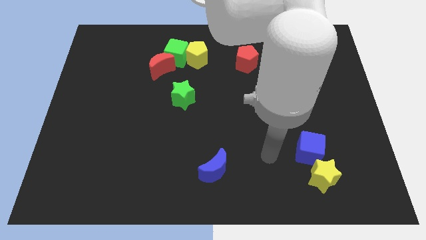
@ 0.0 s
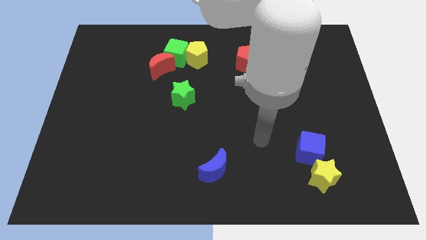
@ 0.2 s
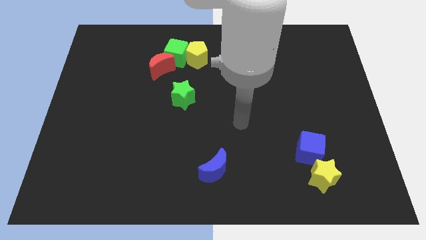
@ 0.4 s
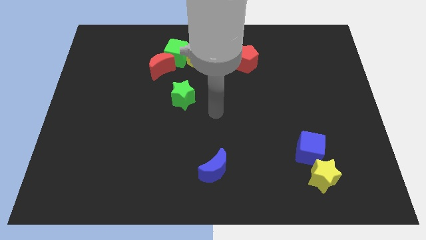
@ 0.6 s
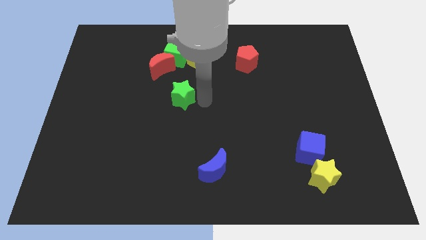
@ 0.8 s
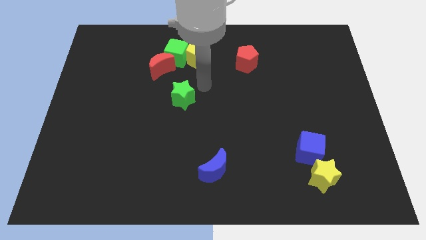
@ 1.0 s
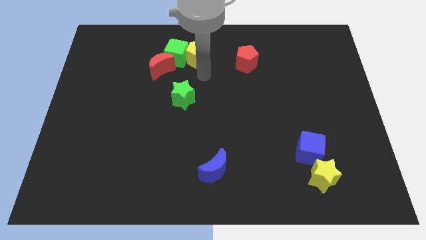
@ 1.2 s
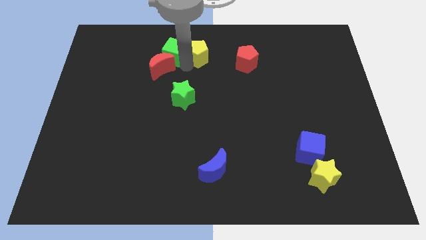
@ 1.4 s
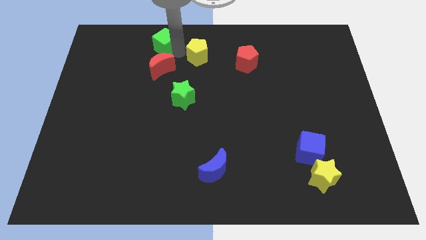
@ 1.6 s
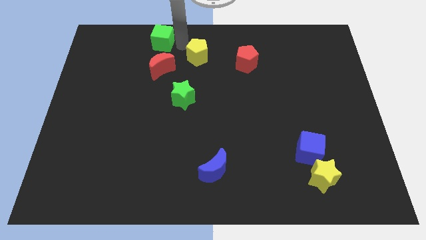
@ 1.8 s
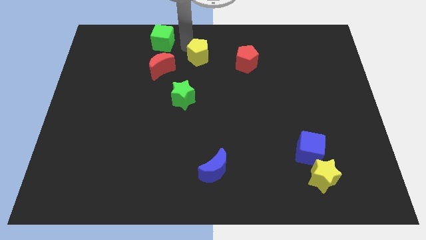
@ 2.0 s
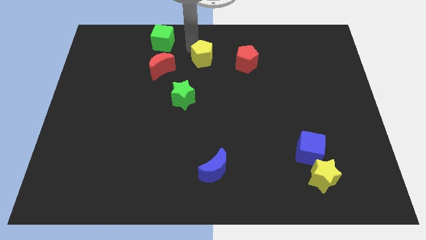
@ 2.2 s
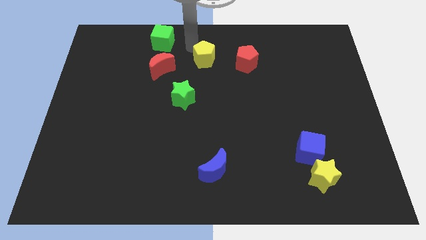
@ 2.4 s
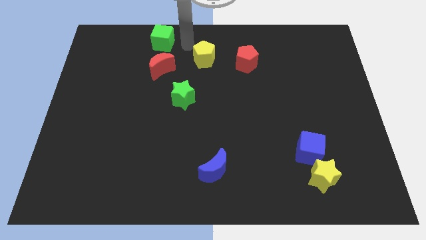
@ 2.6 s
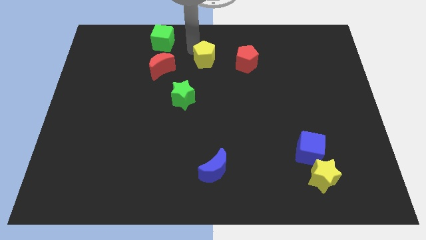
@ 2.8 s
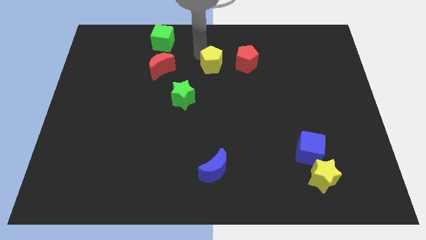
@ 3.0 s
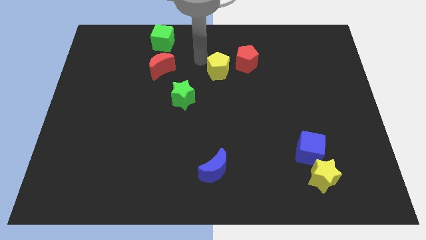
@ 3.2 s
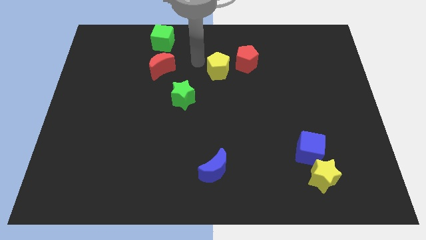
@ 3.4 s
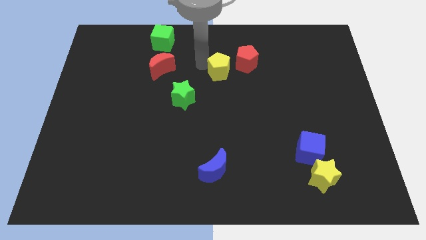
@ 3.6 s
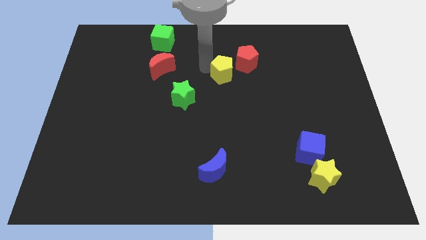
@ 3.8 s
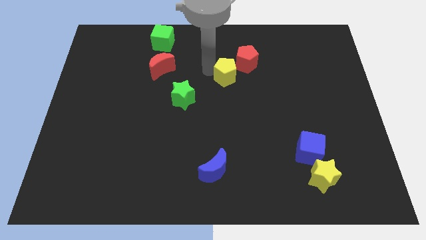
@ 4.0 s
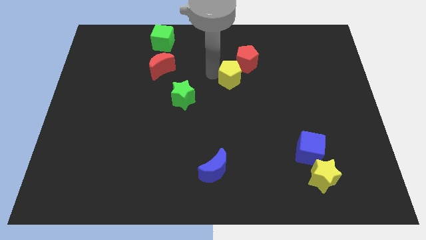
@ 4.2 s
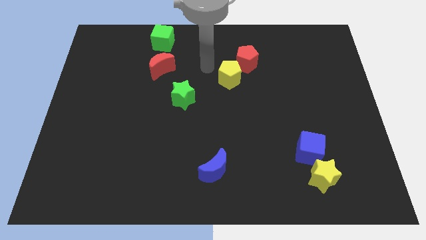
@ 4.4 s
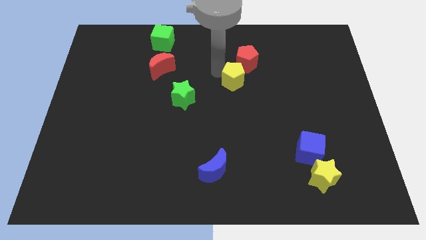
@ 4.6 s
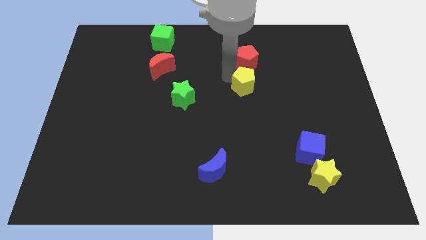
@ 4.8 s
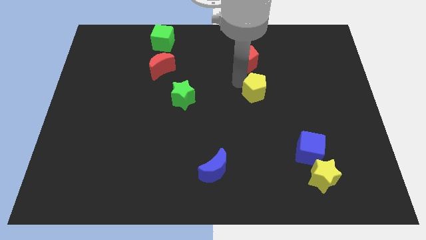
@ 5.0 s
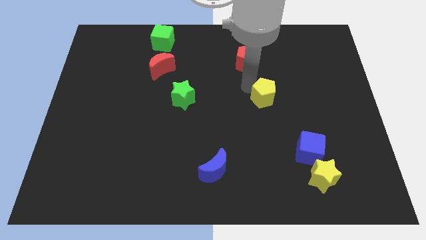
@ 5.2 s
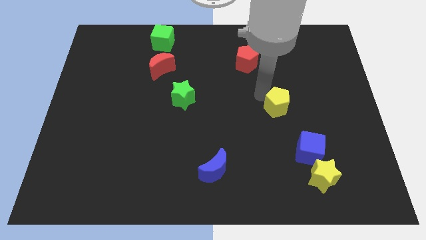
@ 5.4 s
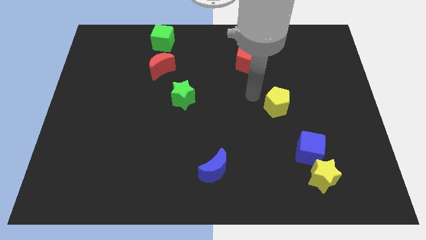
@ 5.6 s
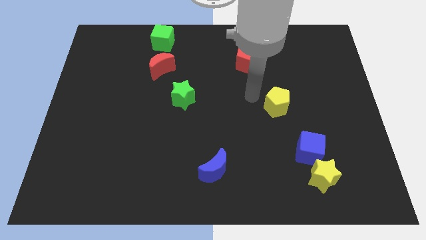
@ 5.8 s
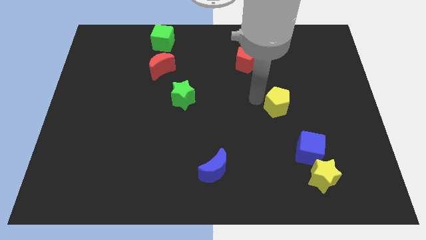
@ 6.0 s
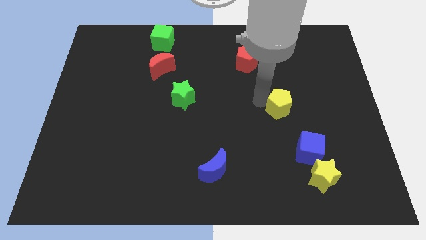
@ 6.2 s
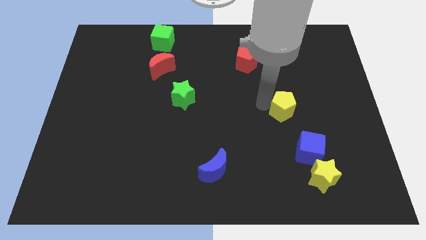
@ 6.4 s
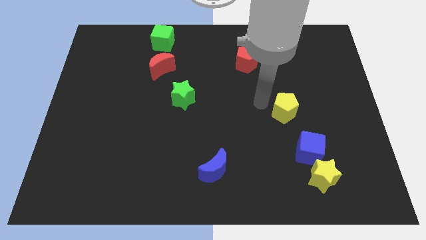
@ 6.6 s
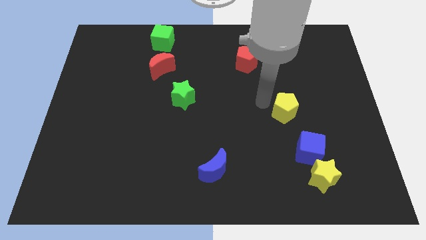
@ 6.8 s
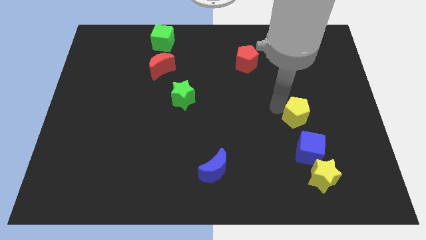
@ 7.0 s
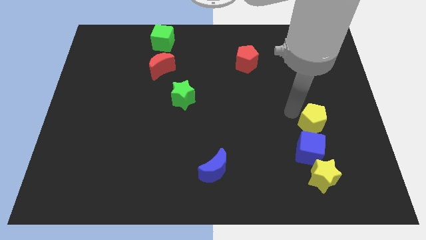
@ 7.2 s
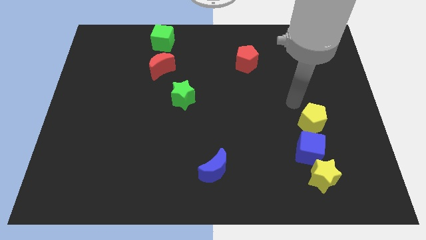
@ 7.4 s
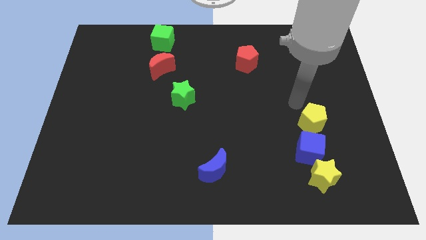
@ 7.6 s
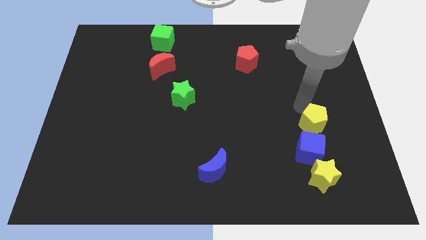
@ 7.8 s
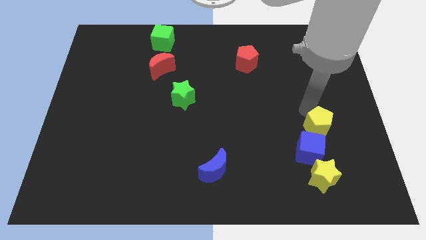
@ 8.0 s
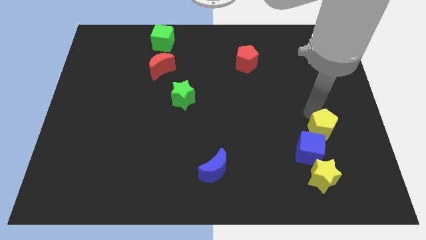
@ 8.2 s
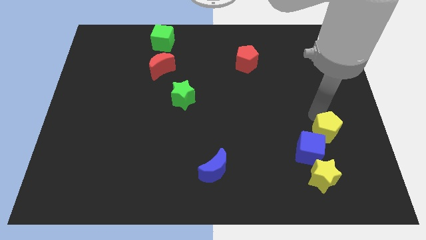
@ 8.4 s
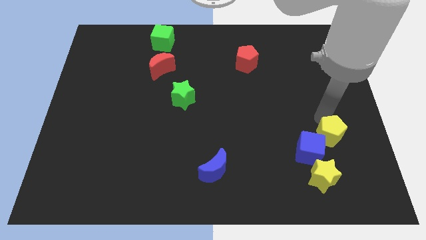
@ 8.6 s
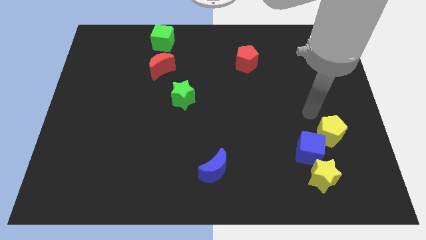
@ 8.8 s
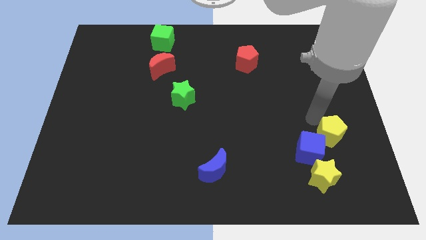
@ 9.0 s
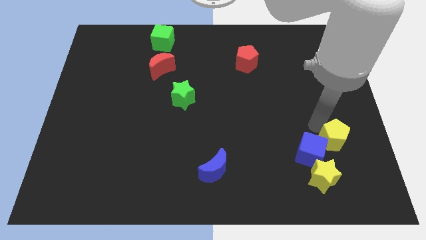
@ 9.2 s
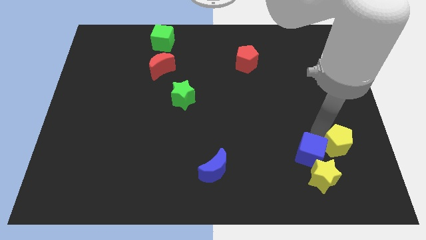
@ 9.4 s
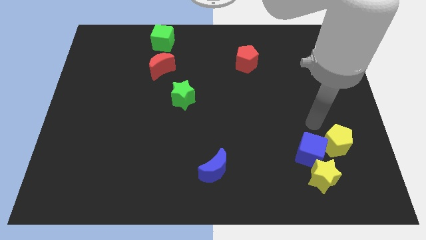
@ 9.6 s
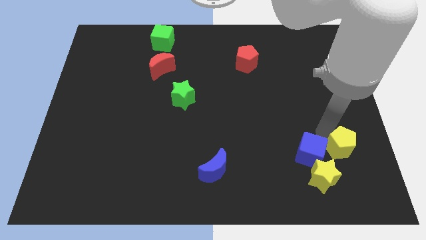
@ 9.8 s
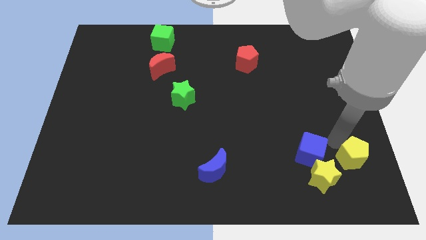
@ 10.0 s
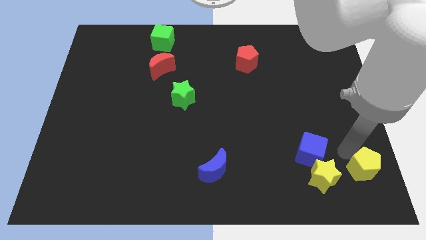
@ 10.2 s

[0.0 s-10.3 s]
slide the yellow pentagon to the lower right corner

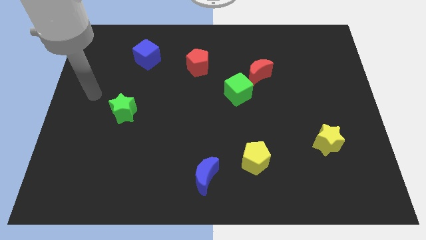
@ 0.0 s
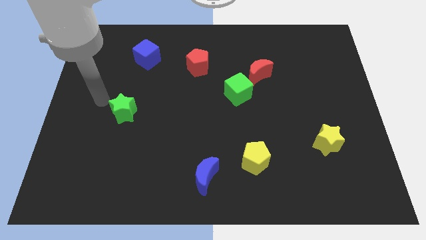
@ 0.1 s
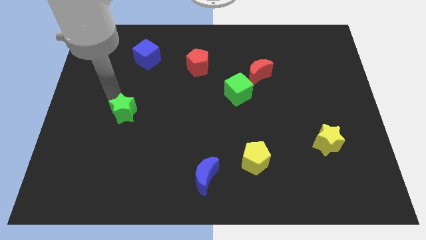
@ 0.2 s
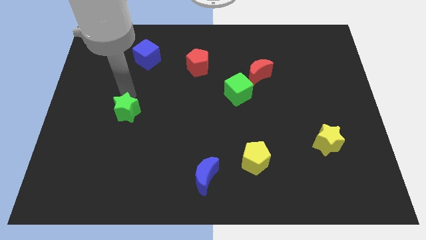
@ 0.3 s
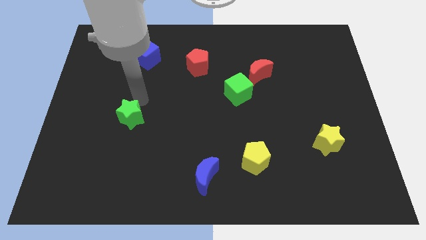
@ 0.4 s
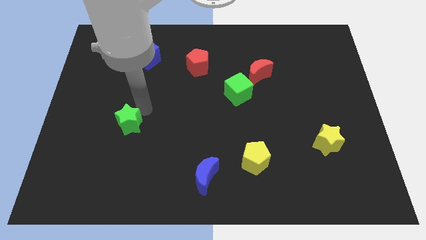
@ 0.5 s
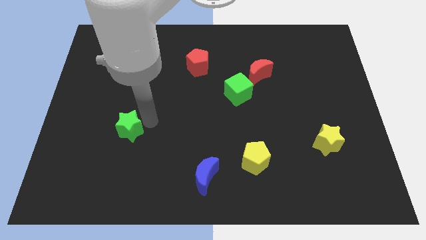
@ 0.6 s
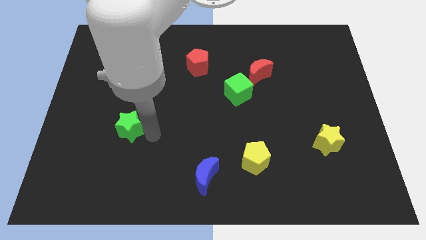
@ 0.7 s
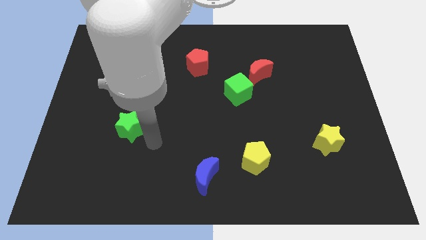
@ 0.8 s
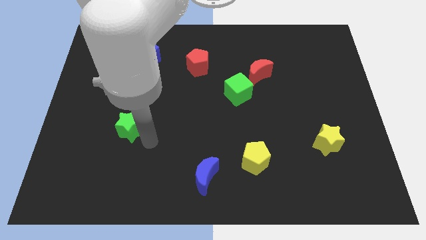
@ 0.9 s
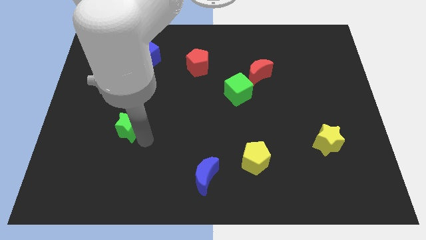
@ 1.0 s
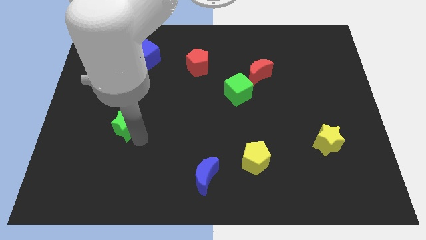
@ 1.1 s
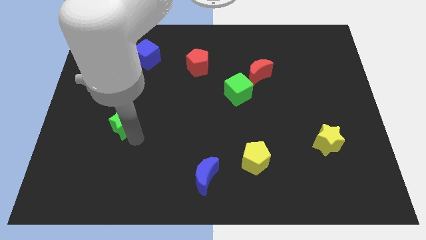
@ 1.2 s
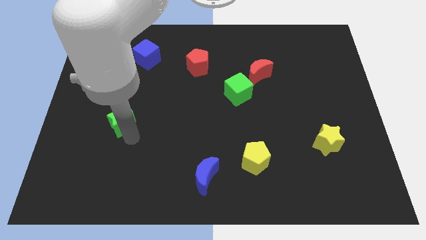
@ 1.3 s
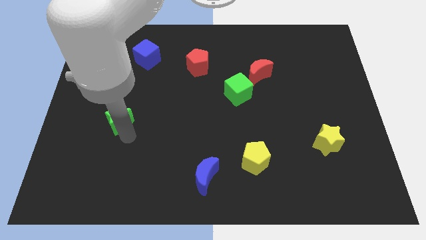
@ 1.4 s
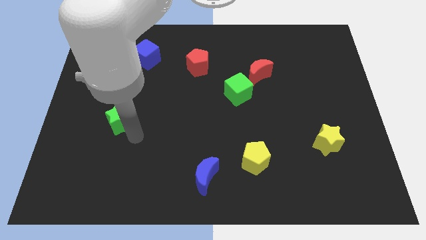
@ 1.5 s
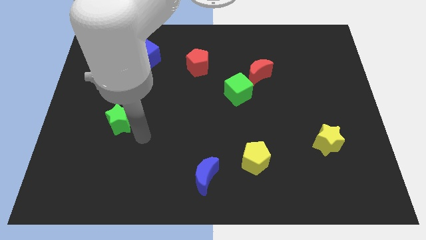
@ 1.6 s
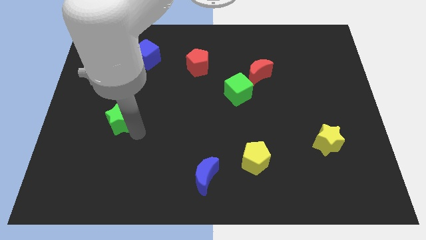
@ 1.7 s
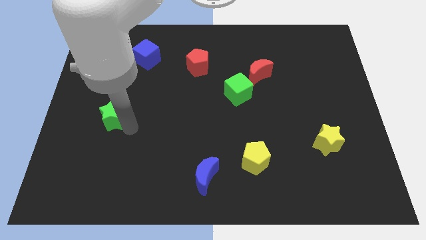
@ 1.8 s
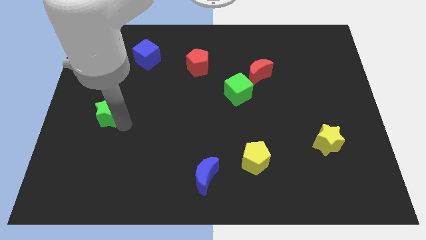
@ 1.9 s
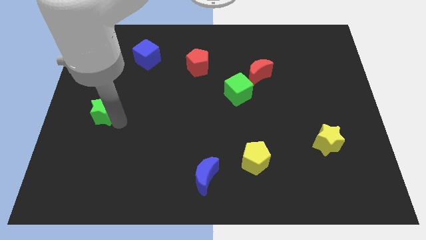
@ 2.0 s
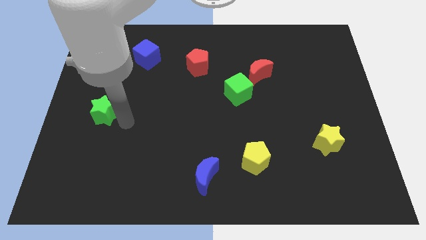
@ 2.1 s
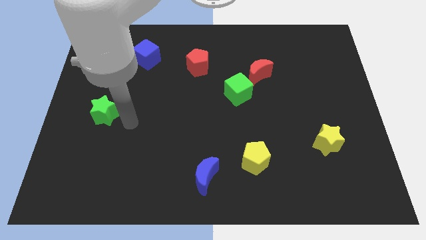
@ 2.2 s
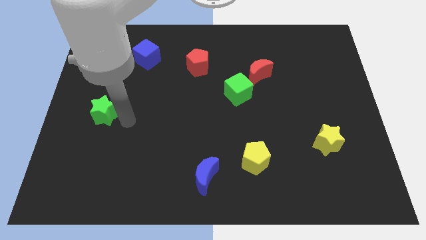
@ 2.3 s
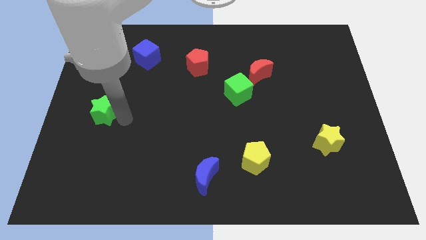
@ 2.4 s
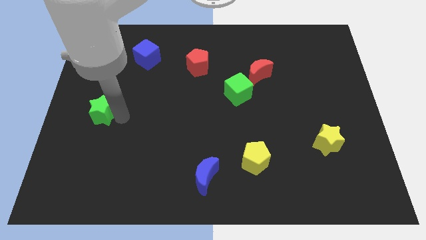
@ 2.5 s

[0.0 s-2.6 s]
slide the green star to the left side

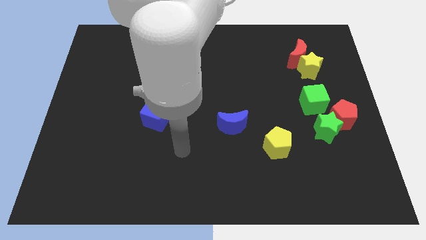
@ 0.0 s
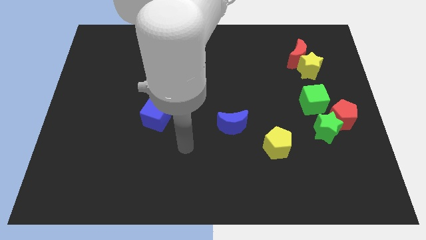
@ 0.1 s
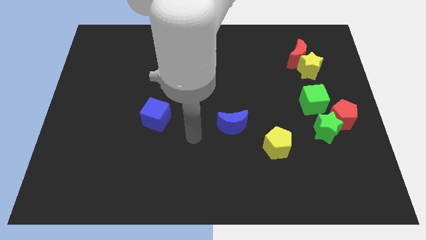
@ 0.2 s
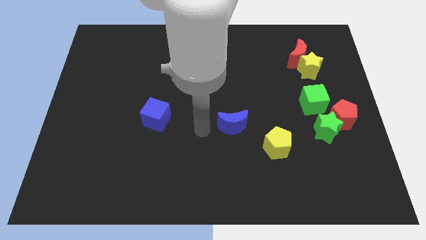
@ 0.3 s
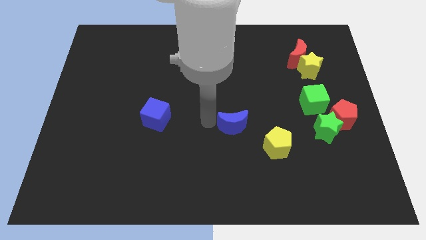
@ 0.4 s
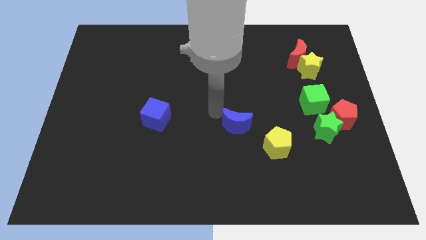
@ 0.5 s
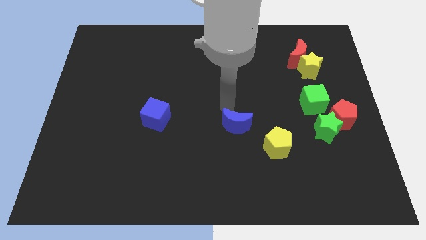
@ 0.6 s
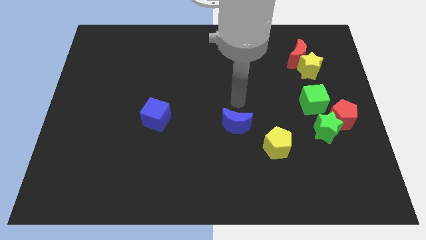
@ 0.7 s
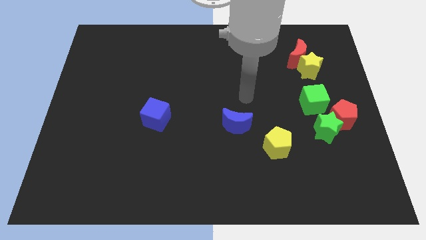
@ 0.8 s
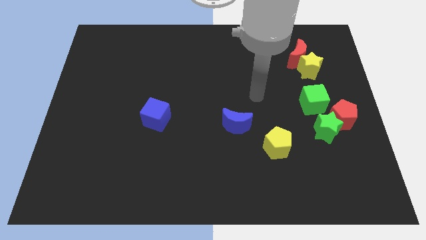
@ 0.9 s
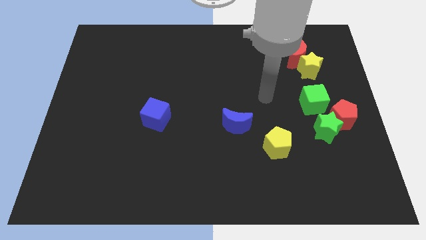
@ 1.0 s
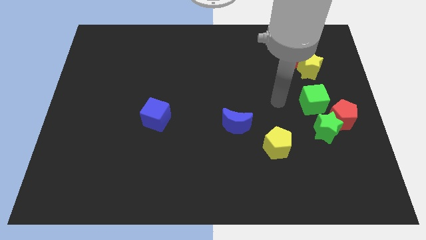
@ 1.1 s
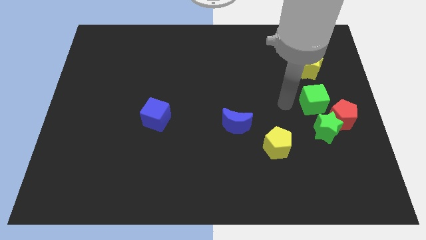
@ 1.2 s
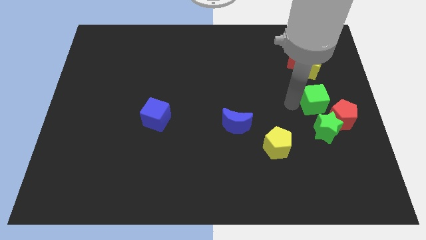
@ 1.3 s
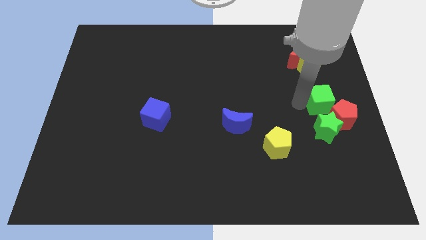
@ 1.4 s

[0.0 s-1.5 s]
put the green cube to the center right
